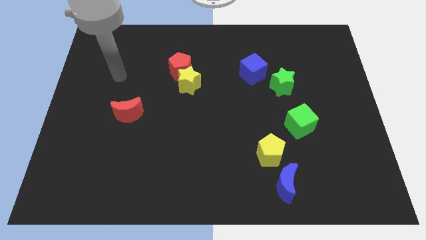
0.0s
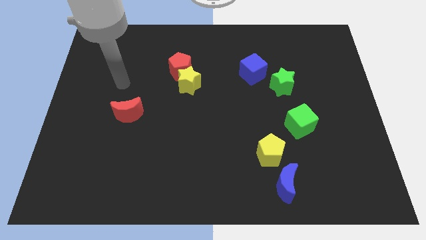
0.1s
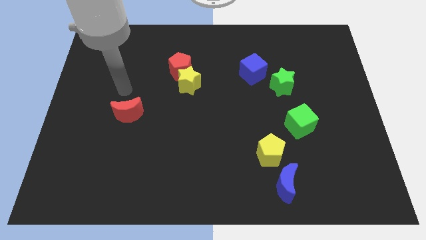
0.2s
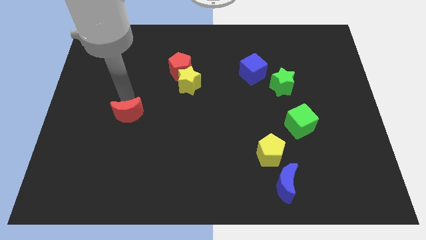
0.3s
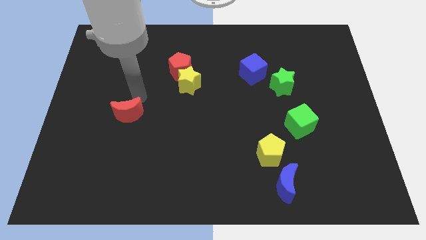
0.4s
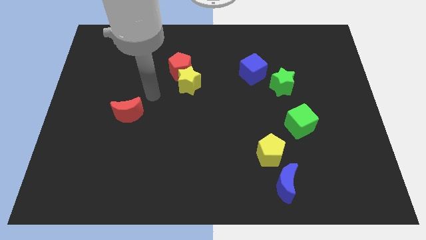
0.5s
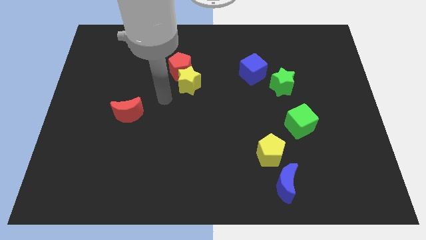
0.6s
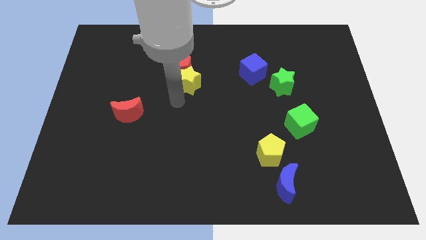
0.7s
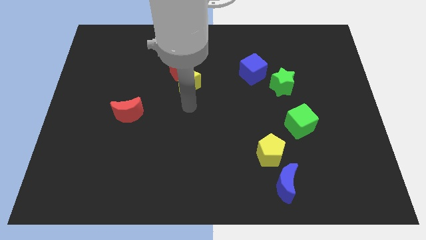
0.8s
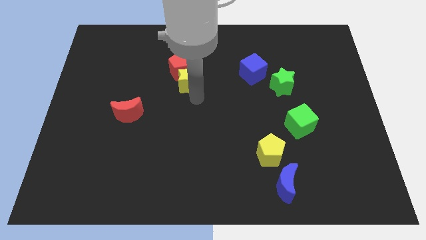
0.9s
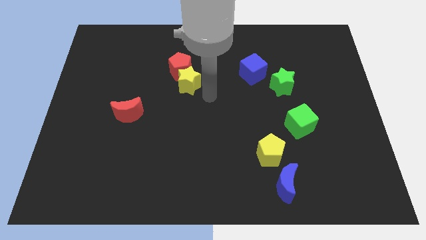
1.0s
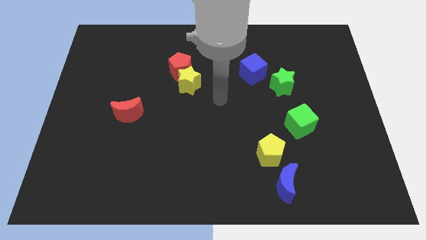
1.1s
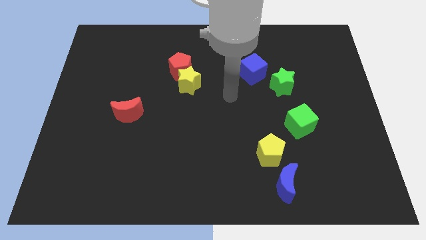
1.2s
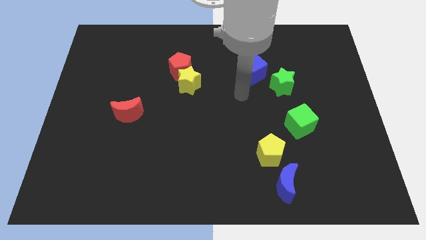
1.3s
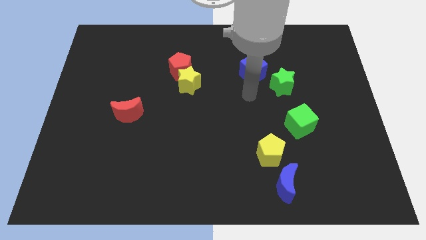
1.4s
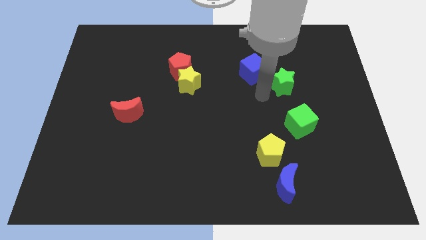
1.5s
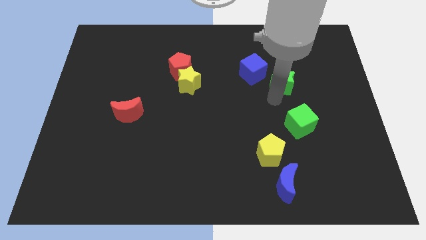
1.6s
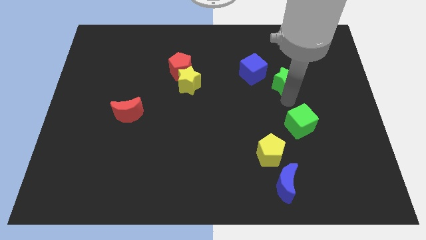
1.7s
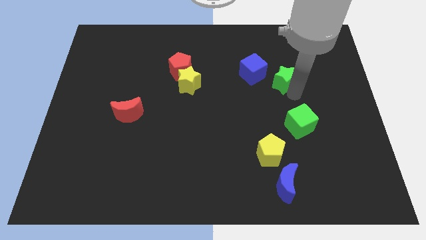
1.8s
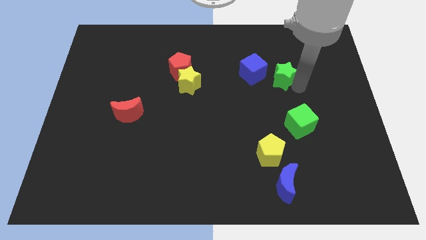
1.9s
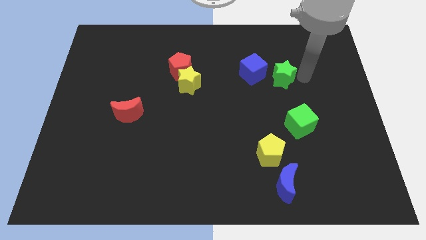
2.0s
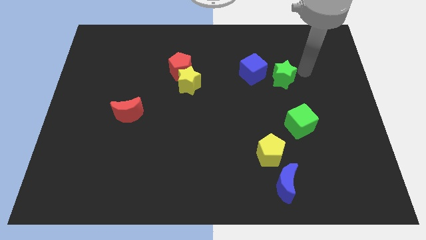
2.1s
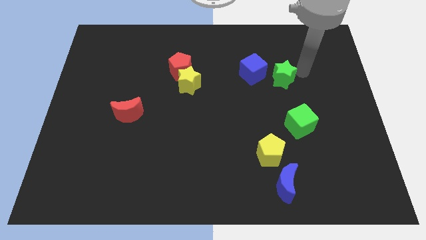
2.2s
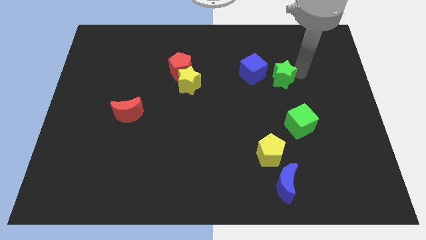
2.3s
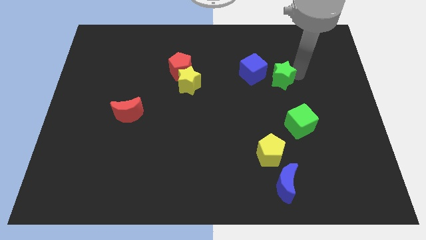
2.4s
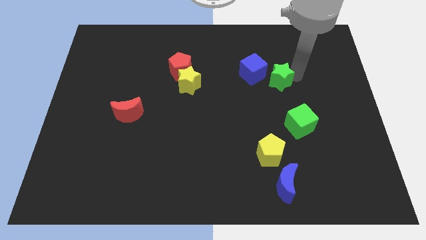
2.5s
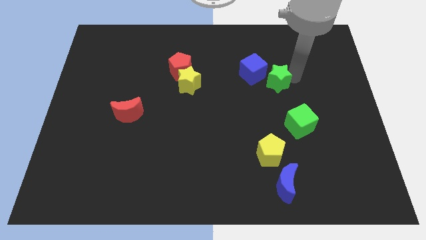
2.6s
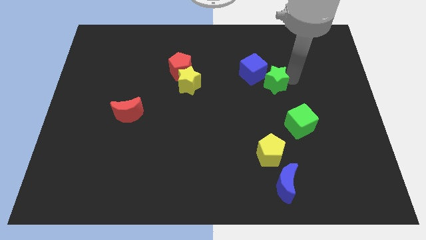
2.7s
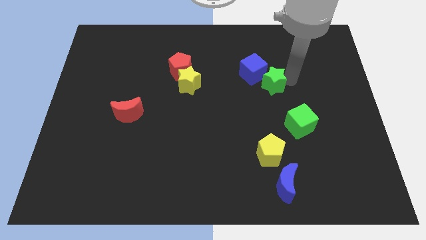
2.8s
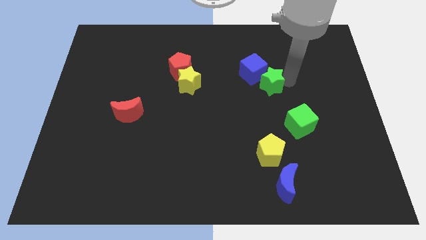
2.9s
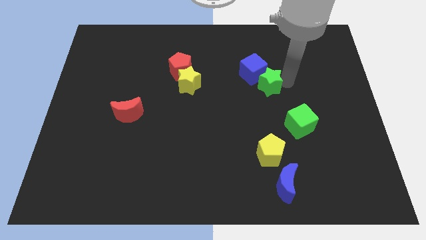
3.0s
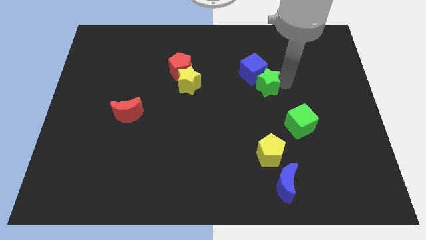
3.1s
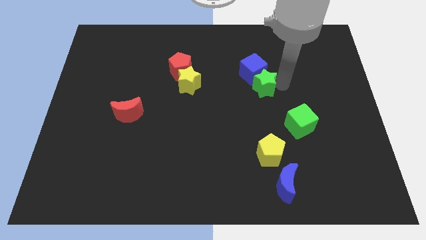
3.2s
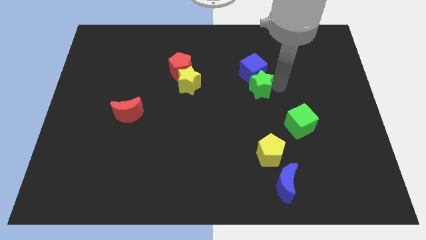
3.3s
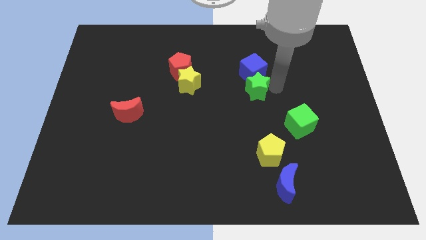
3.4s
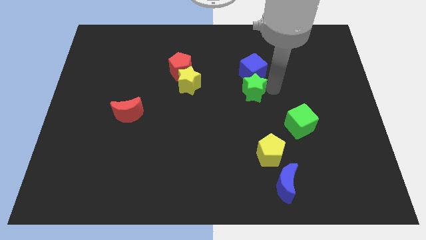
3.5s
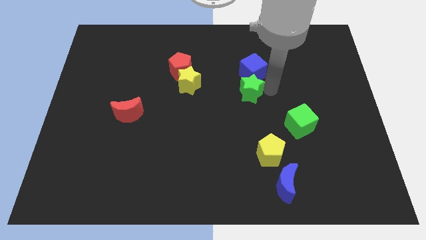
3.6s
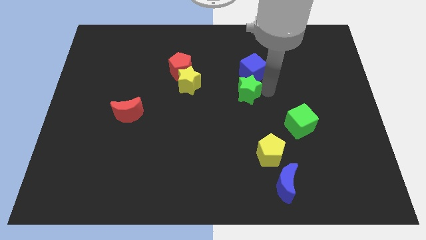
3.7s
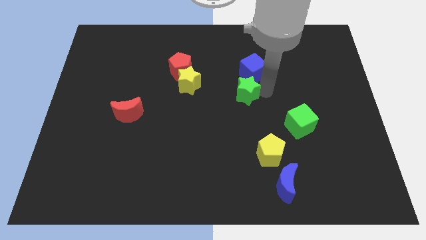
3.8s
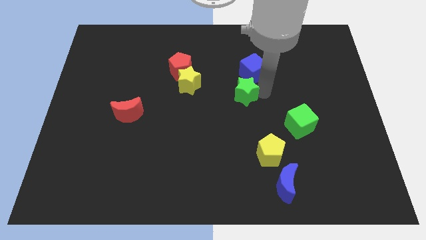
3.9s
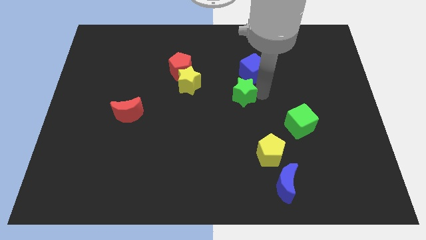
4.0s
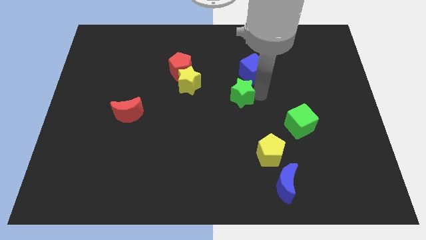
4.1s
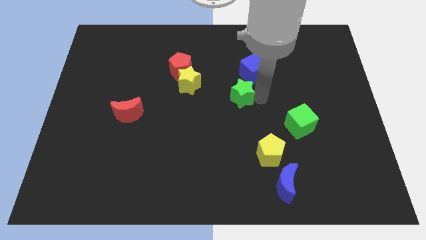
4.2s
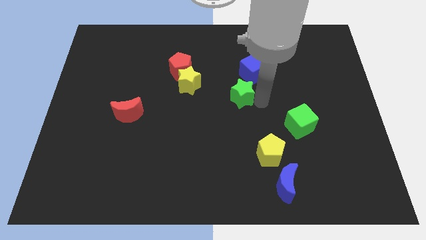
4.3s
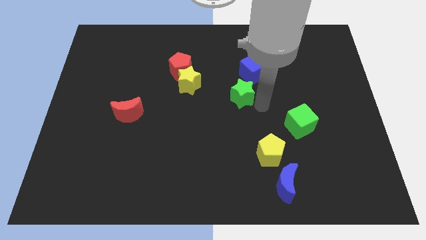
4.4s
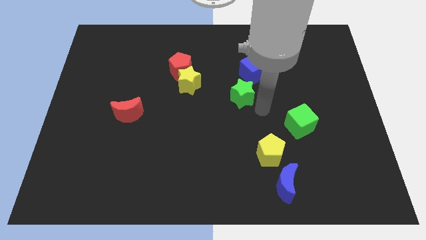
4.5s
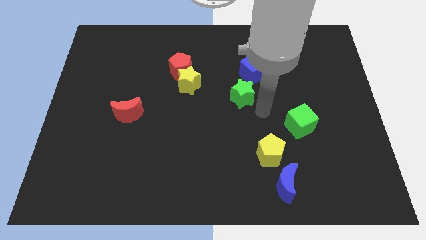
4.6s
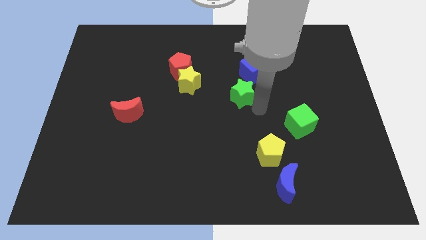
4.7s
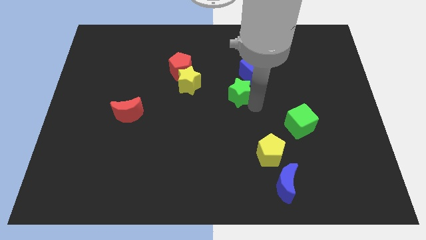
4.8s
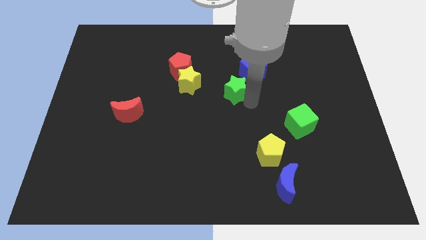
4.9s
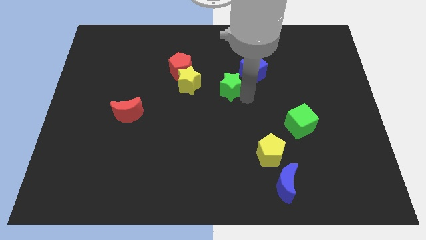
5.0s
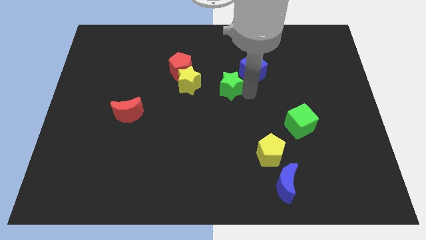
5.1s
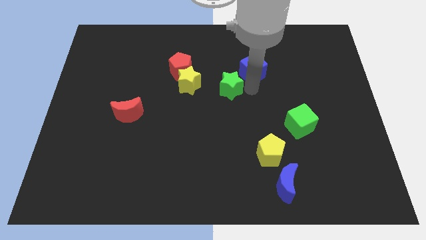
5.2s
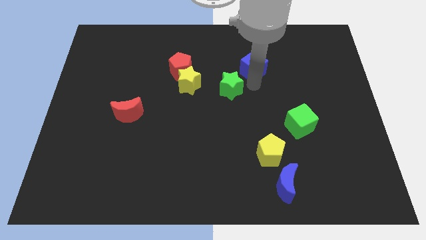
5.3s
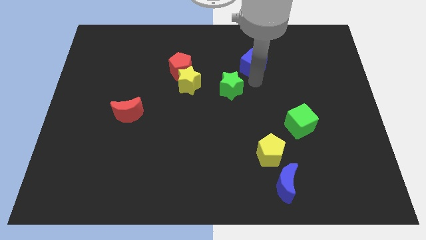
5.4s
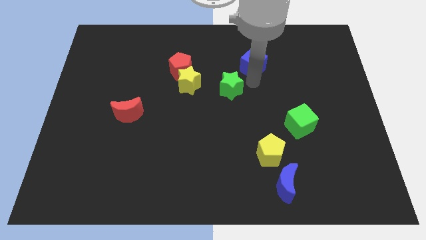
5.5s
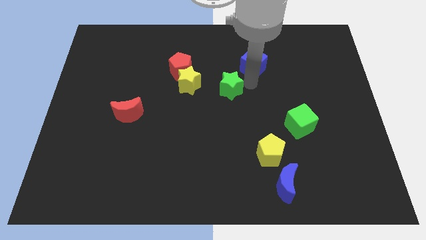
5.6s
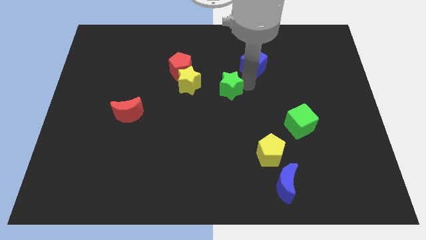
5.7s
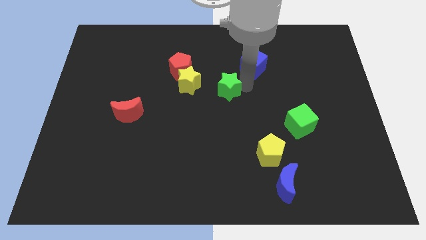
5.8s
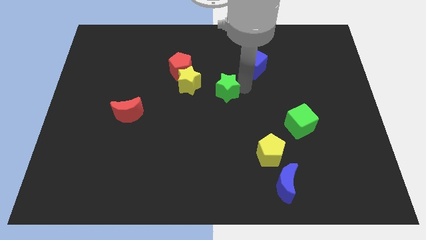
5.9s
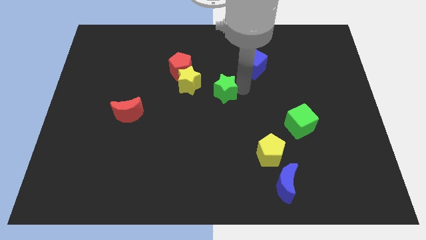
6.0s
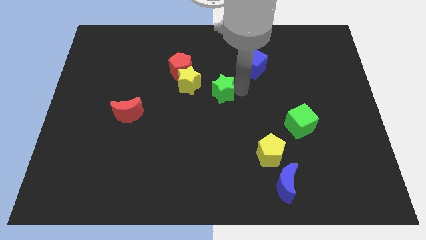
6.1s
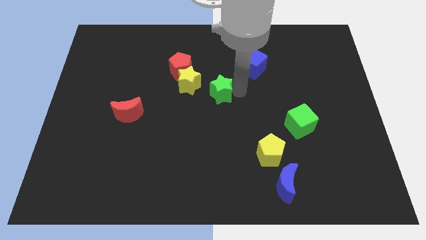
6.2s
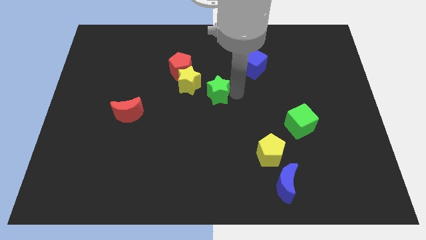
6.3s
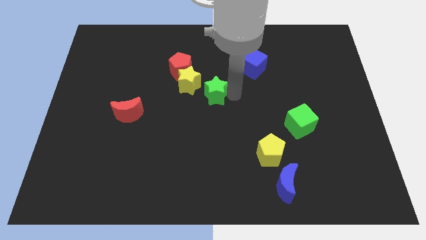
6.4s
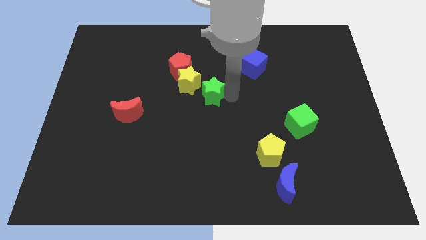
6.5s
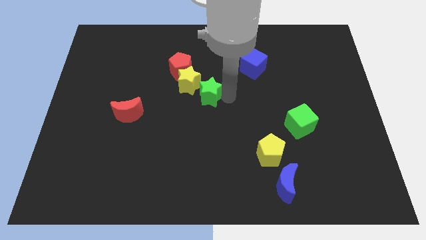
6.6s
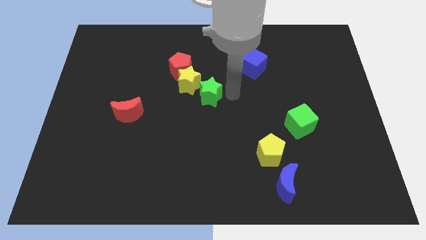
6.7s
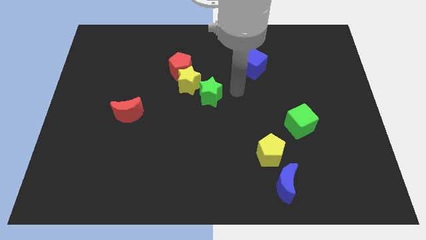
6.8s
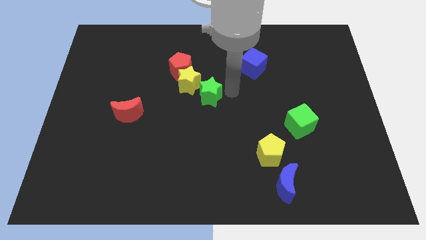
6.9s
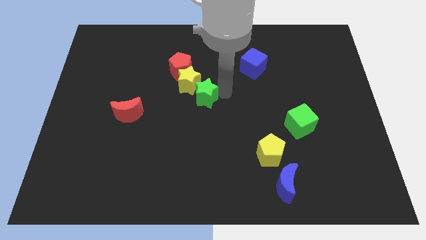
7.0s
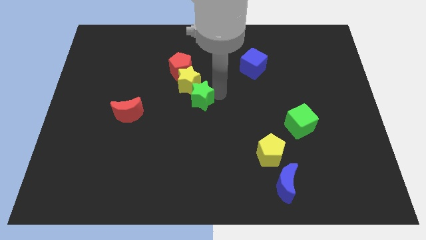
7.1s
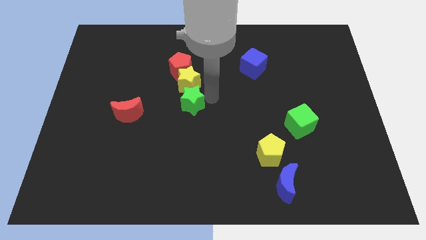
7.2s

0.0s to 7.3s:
move the green star to the left

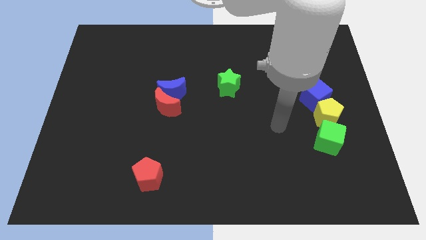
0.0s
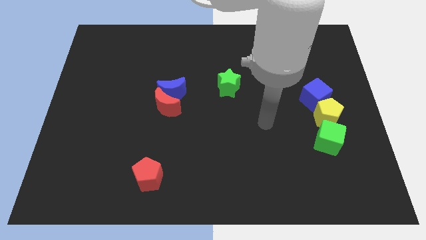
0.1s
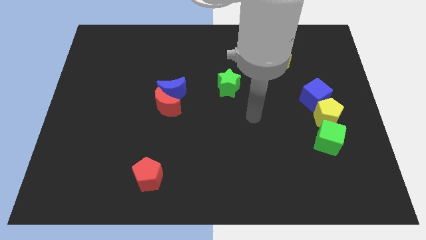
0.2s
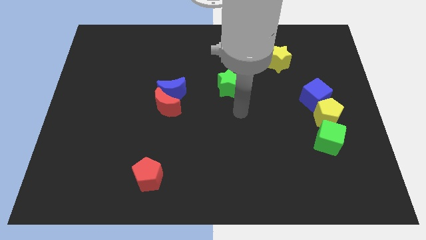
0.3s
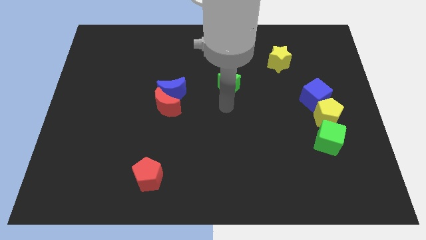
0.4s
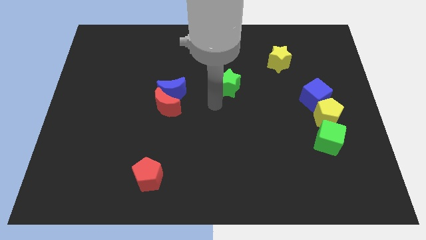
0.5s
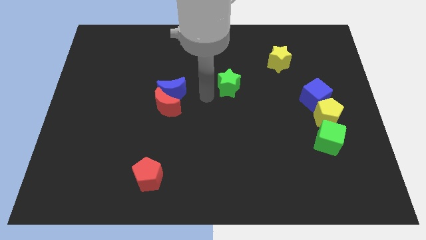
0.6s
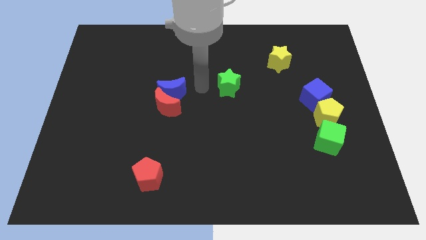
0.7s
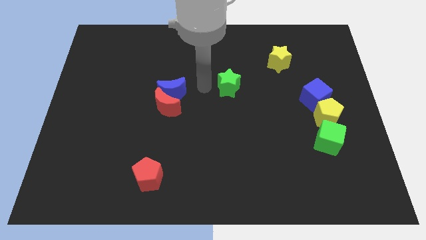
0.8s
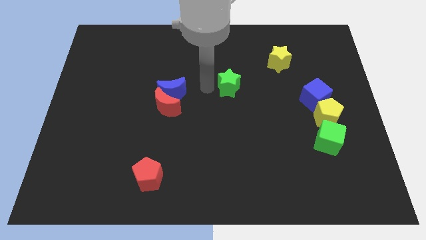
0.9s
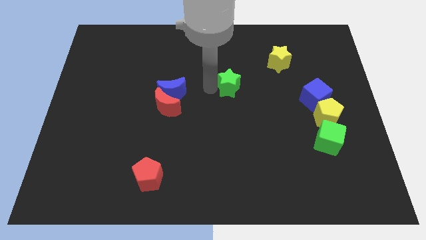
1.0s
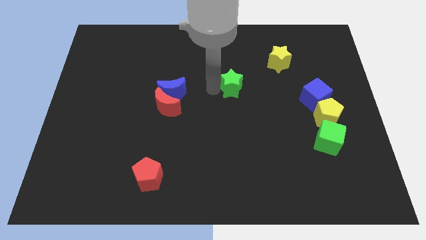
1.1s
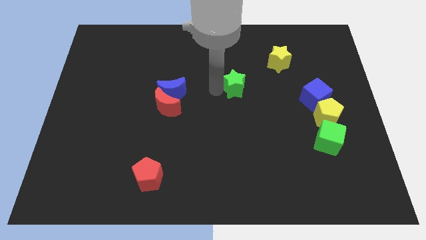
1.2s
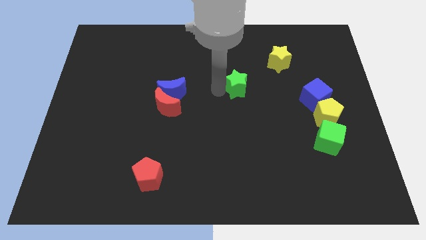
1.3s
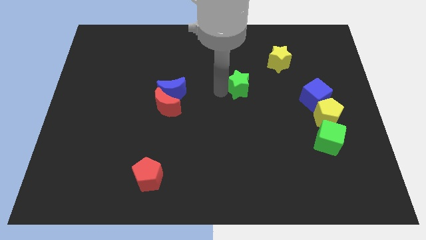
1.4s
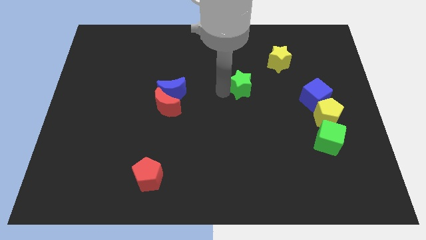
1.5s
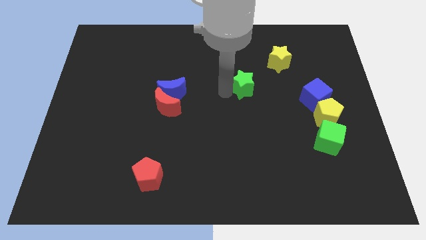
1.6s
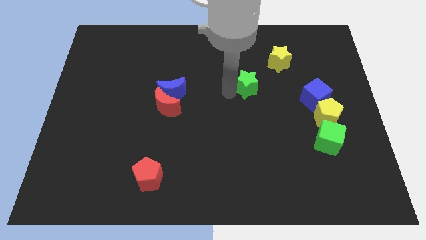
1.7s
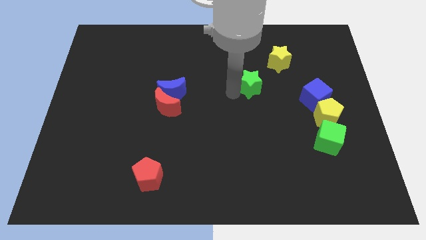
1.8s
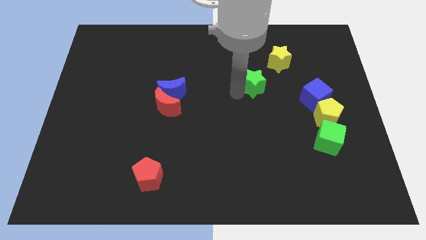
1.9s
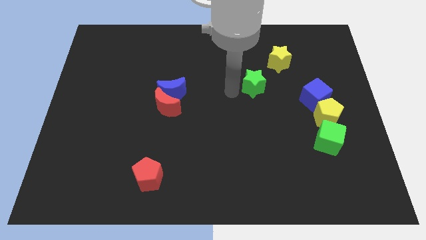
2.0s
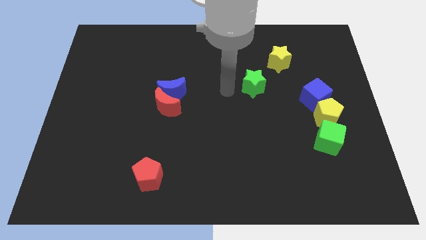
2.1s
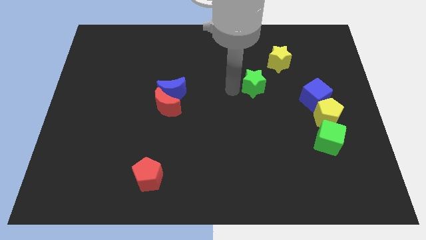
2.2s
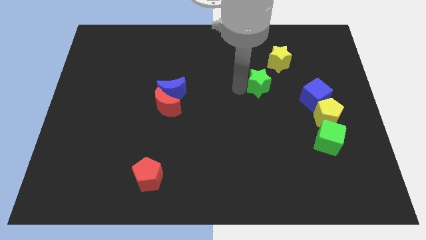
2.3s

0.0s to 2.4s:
slide the green star a bit to the right
